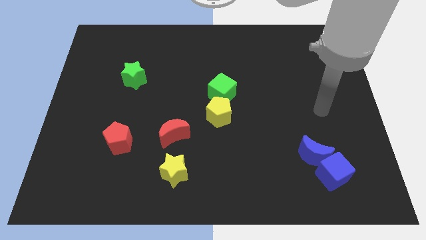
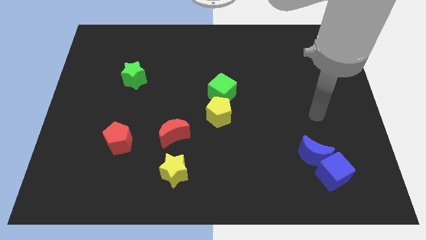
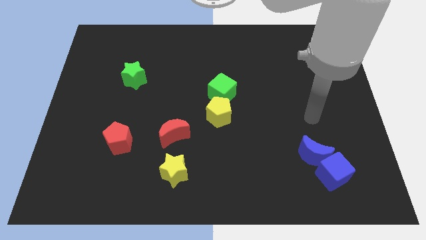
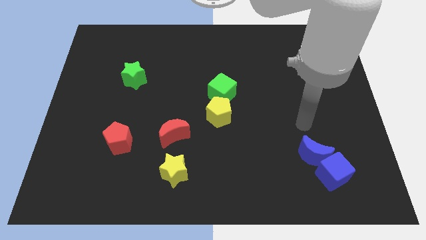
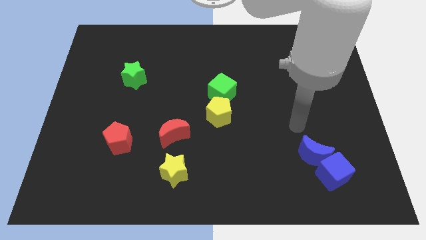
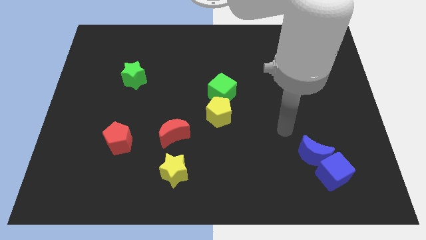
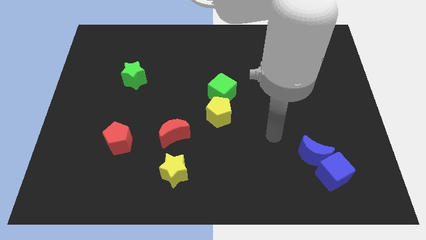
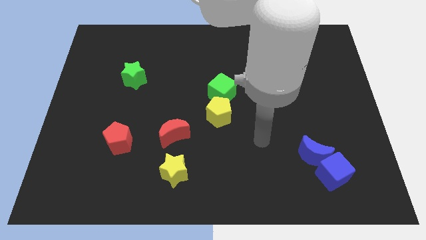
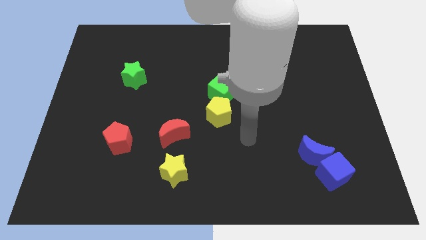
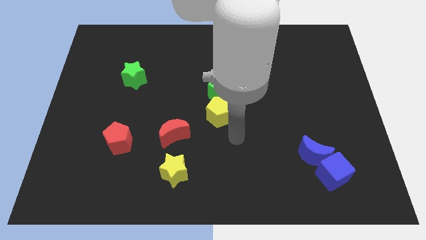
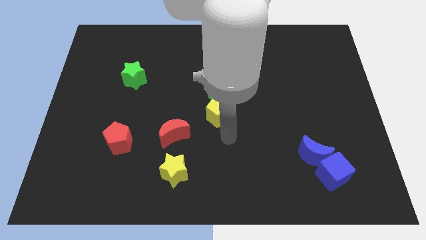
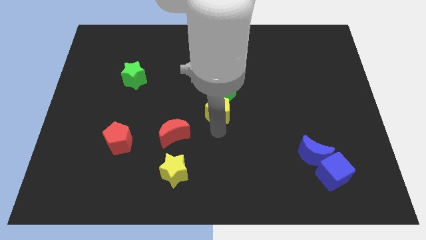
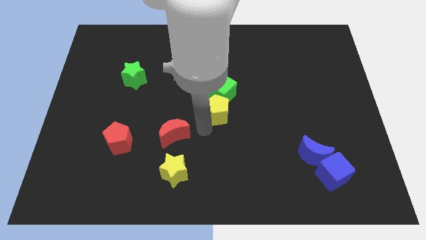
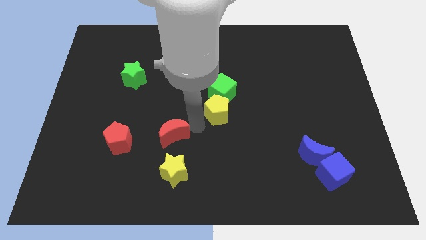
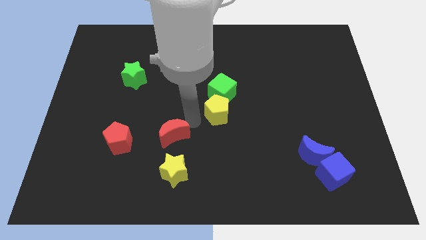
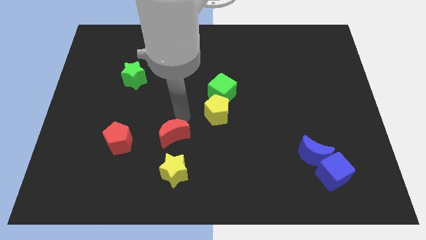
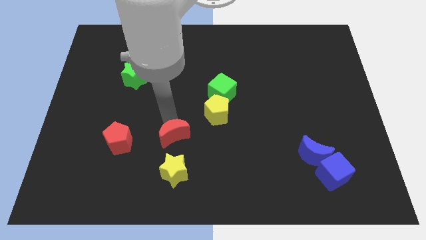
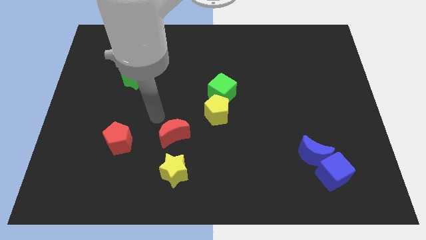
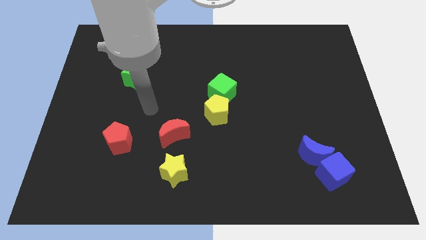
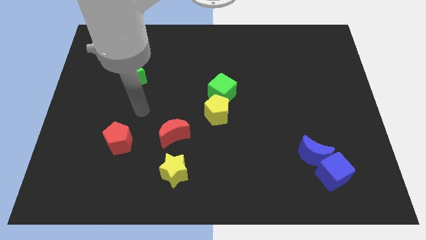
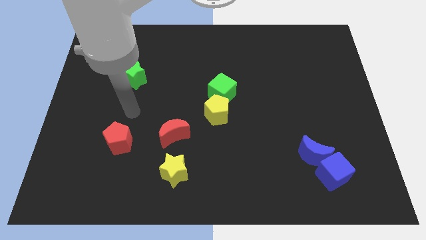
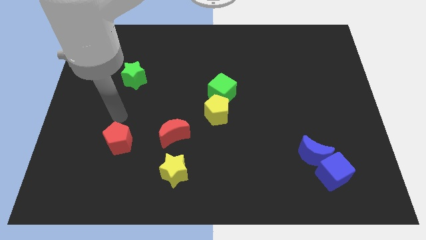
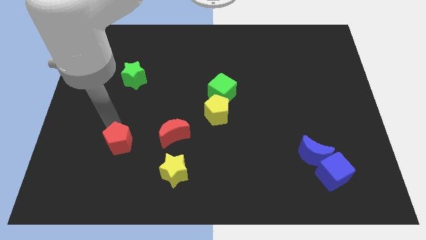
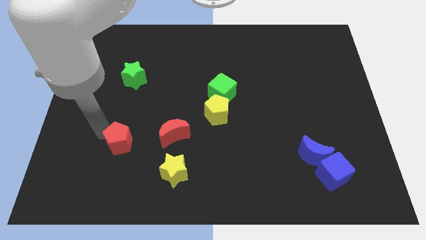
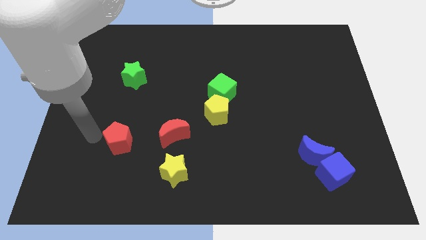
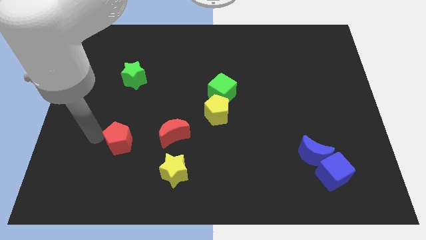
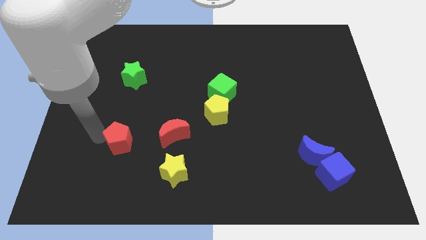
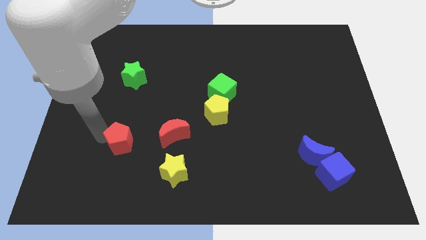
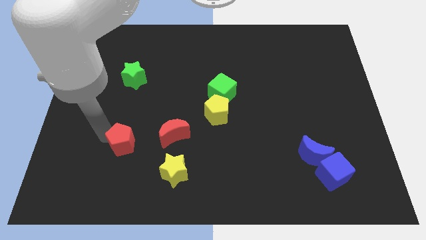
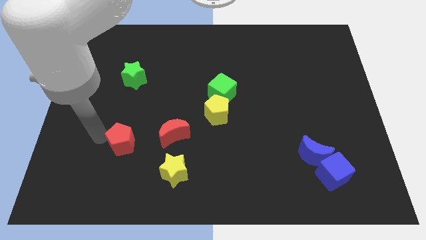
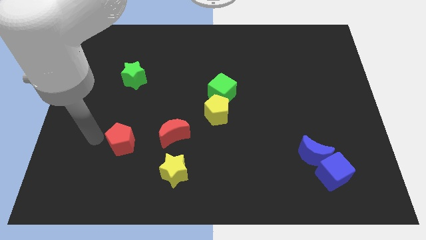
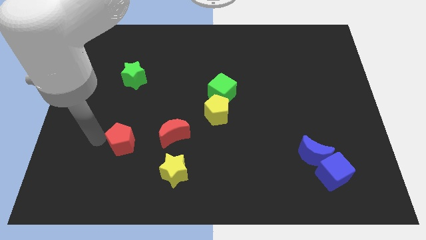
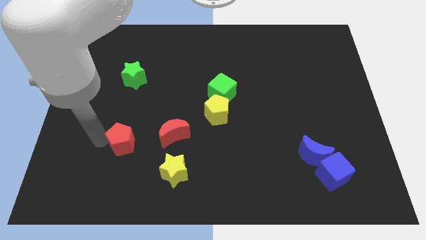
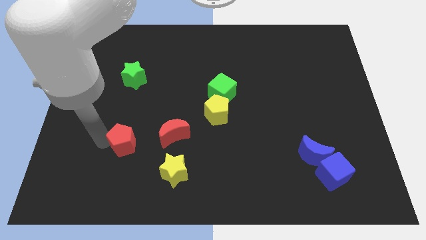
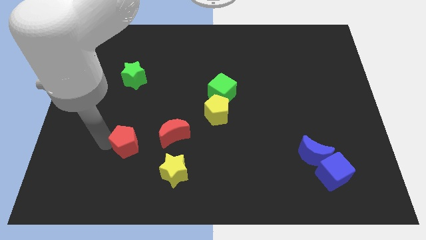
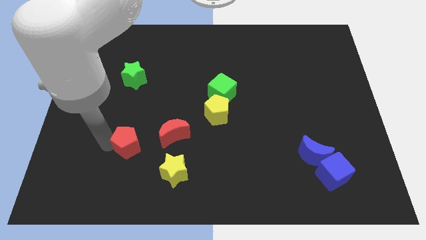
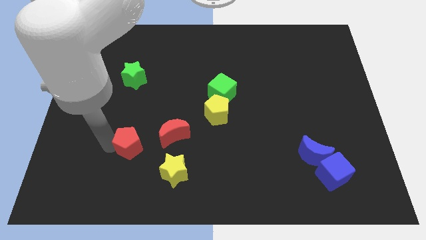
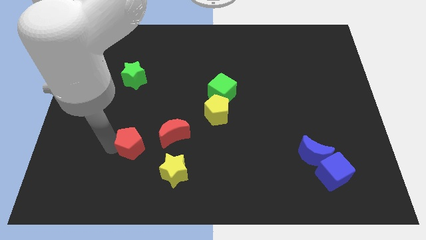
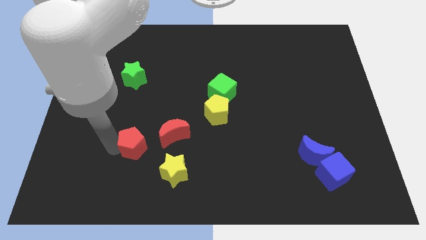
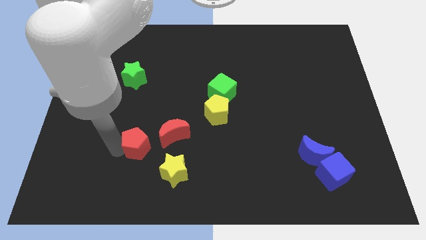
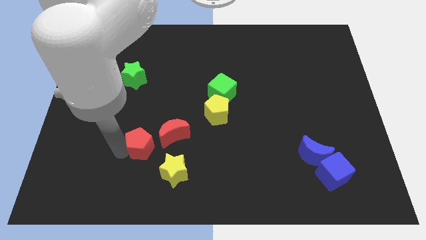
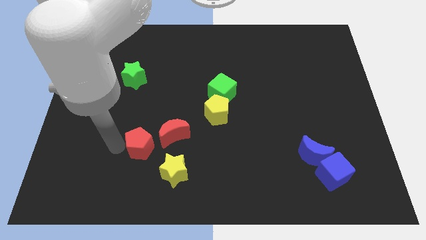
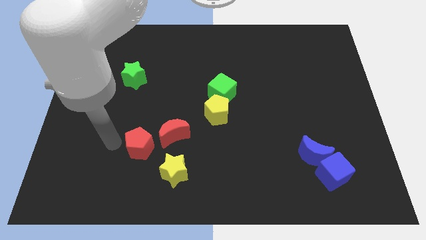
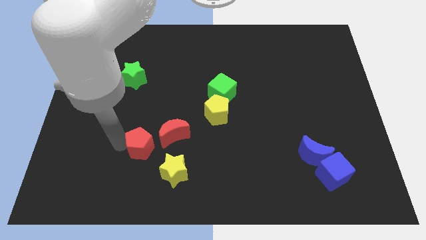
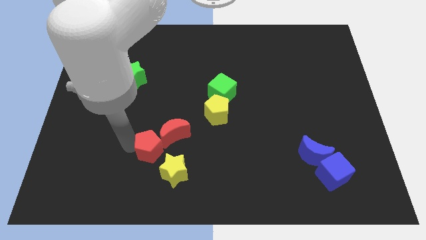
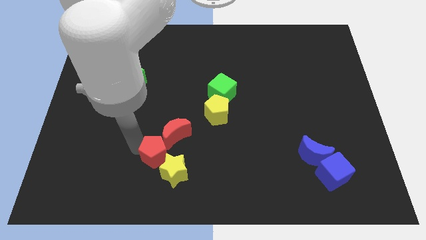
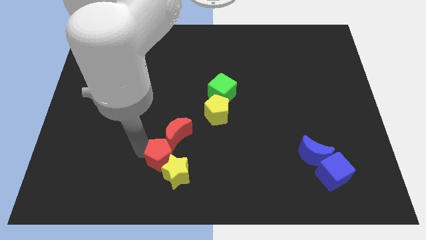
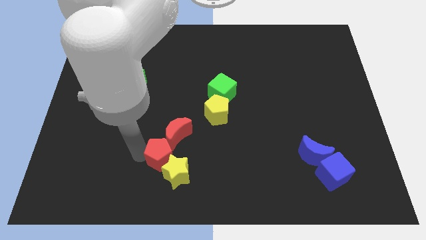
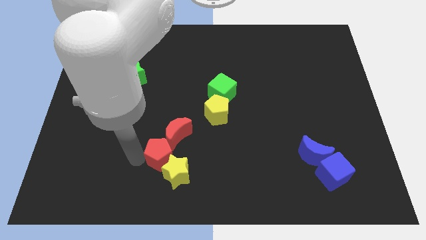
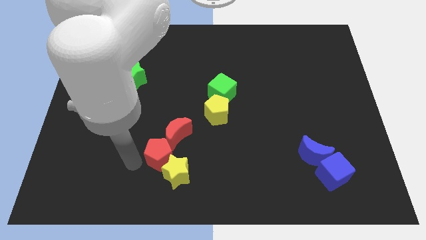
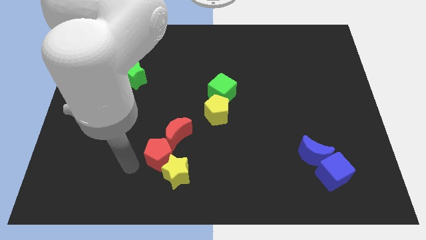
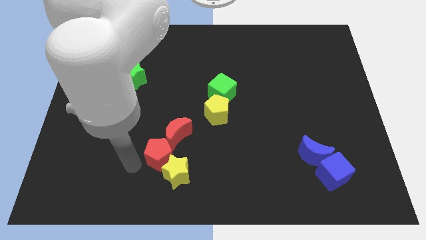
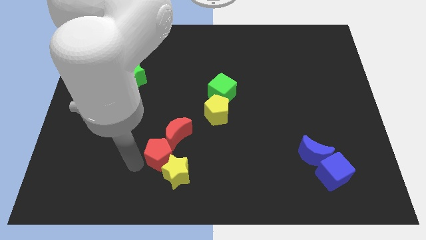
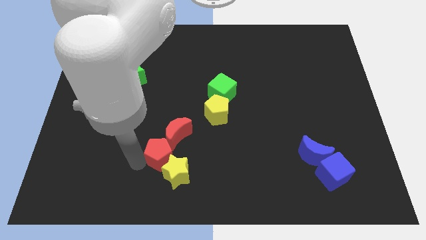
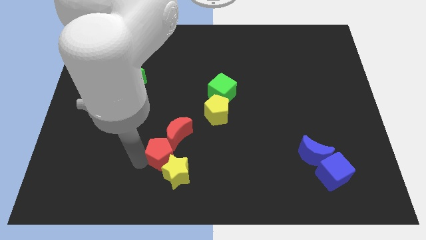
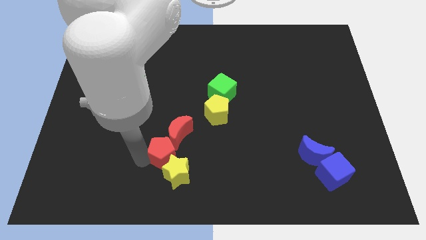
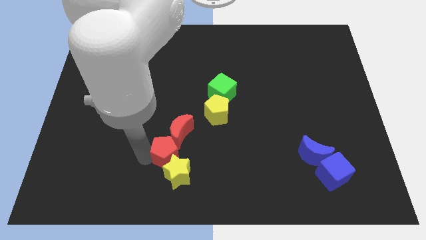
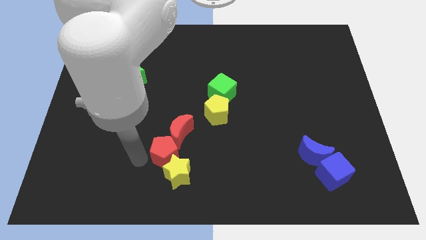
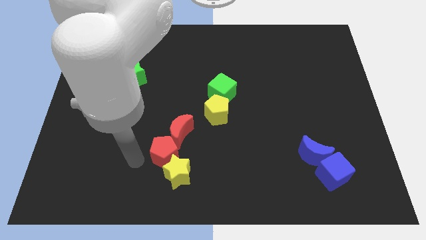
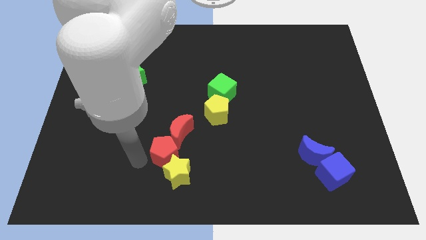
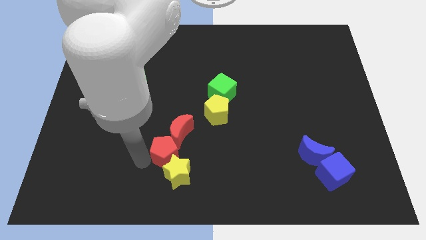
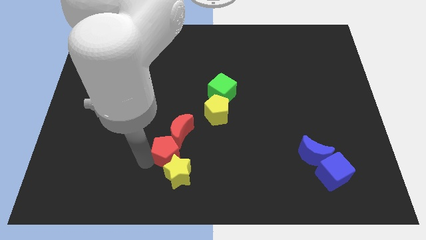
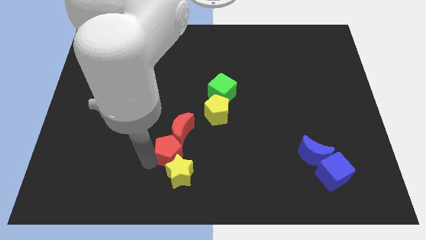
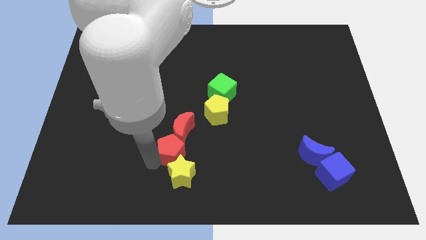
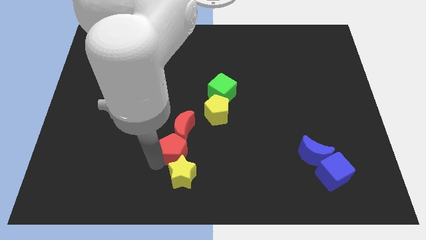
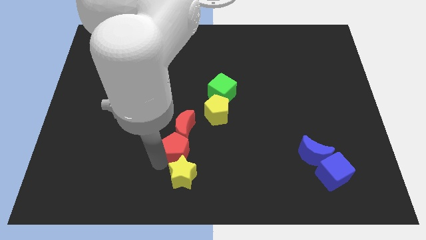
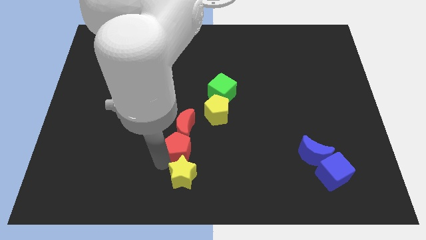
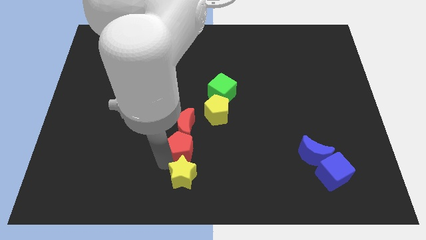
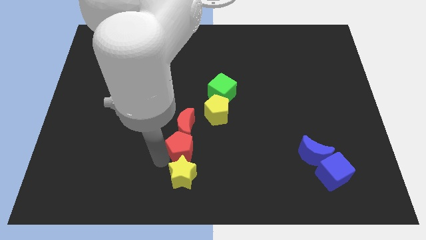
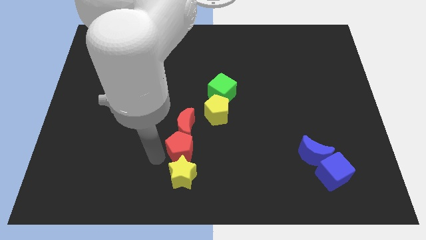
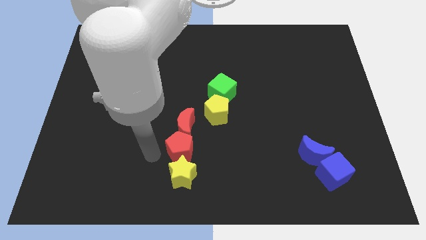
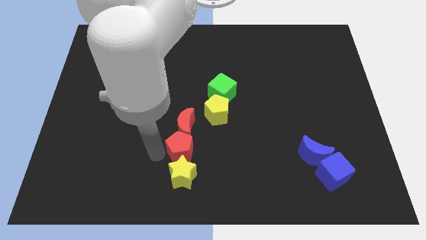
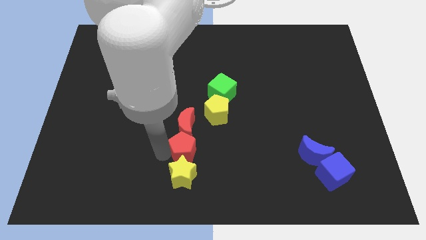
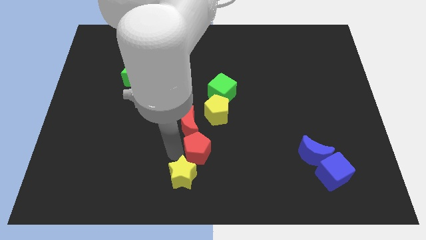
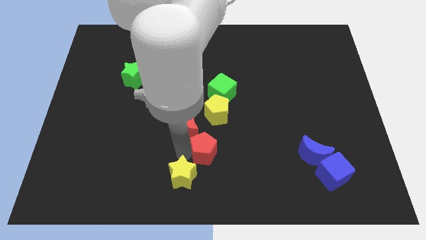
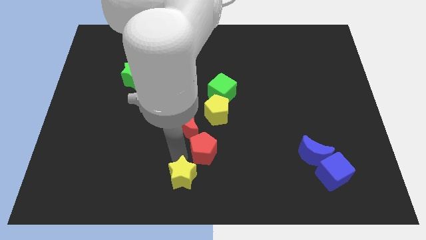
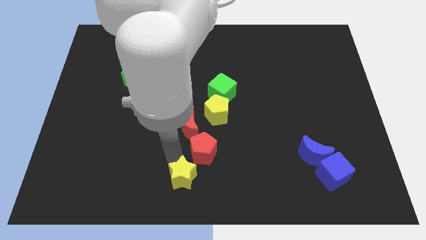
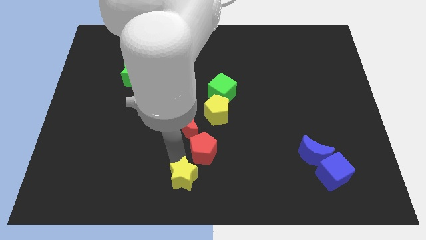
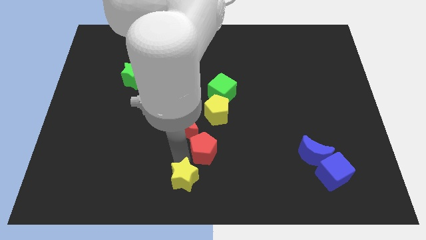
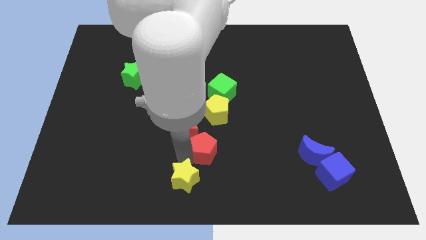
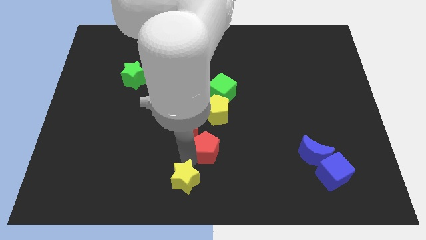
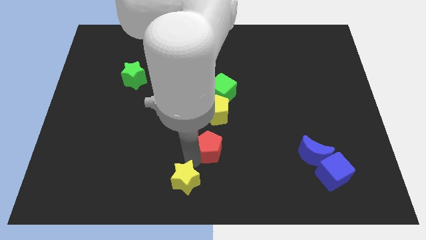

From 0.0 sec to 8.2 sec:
push the red pentagon to the right
